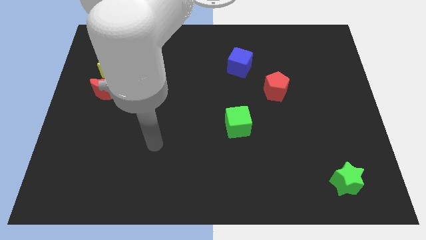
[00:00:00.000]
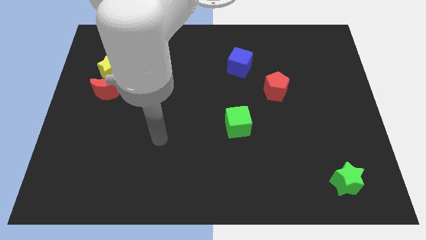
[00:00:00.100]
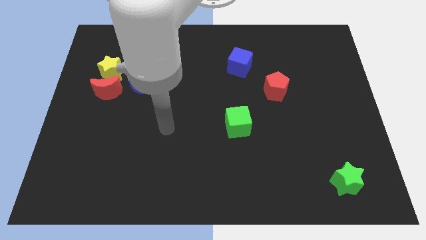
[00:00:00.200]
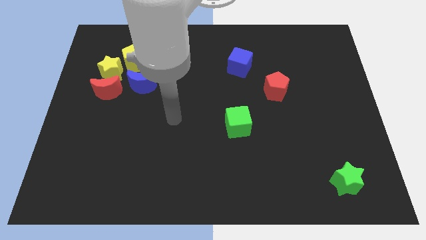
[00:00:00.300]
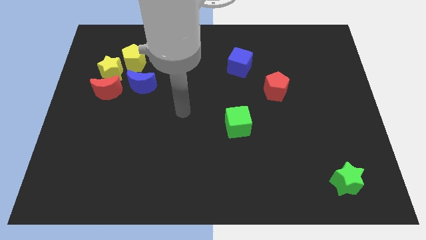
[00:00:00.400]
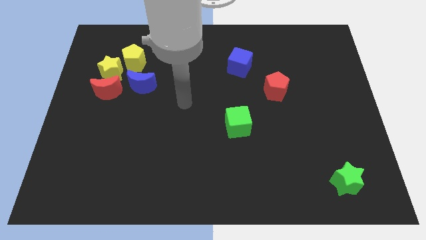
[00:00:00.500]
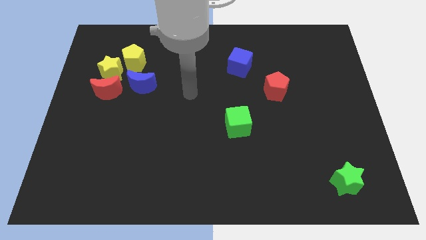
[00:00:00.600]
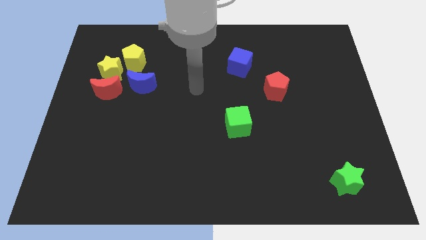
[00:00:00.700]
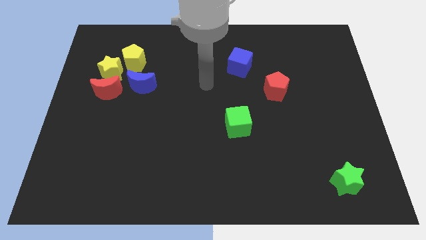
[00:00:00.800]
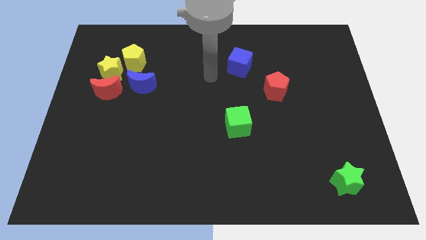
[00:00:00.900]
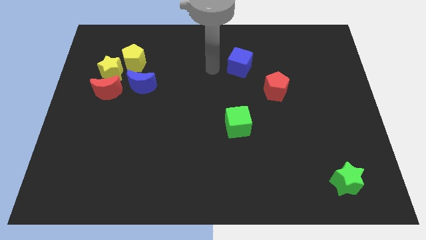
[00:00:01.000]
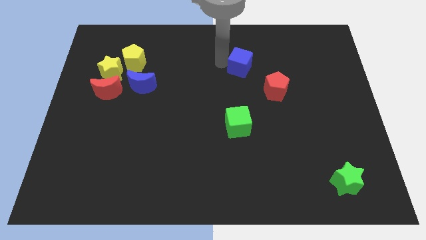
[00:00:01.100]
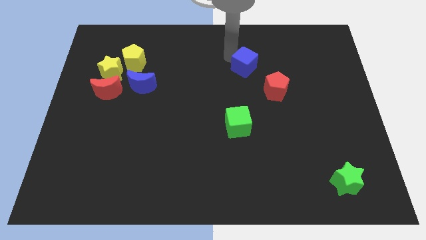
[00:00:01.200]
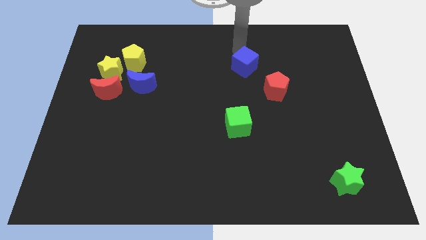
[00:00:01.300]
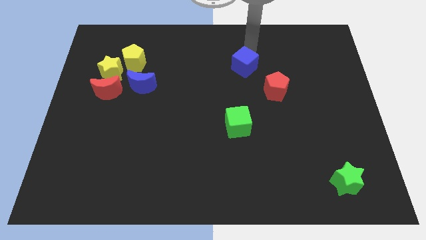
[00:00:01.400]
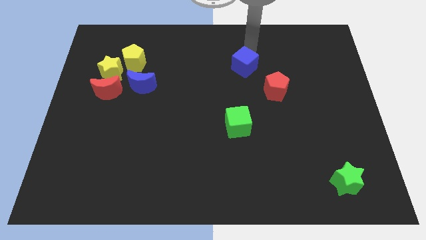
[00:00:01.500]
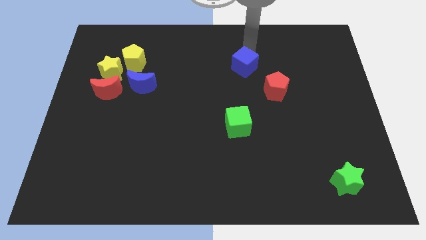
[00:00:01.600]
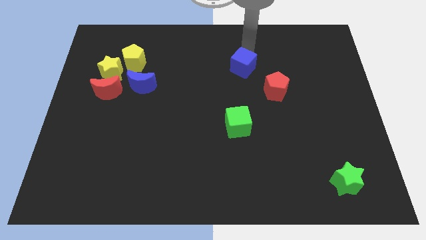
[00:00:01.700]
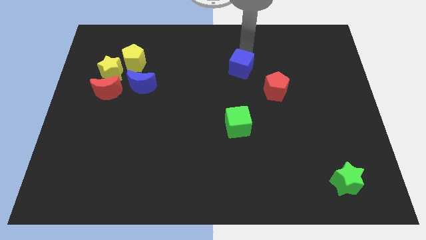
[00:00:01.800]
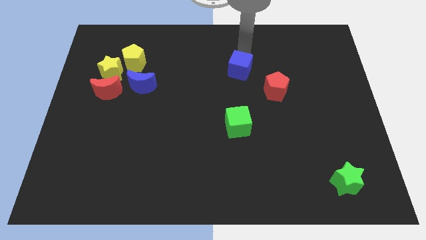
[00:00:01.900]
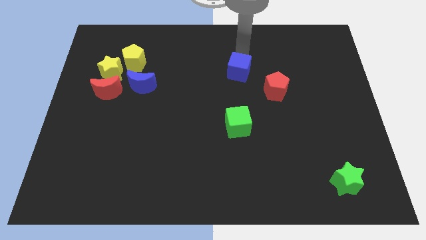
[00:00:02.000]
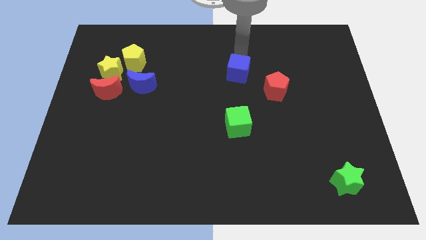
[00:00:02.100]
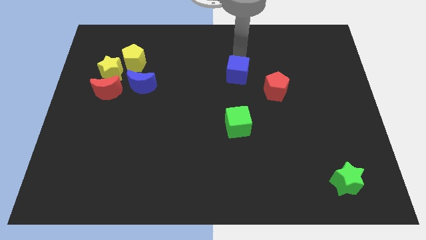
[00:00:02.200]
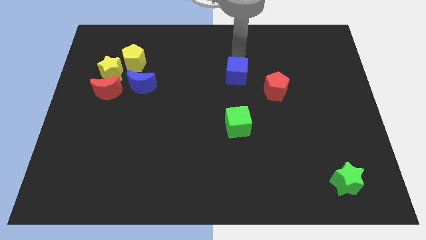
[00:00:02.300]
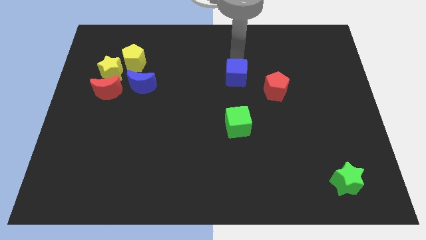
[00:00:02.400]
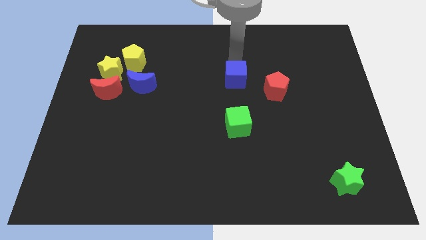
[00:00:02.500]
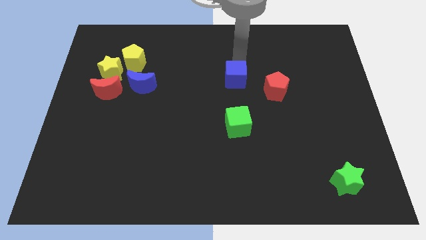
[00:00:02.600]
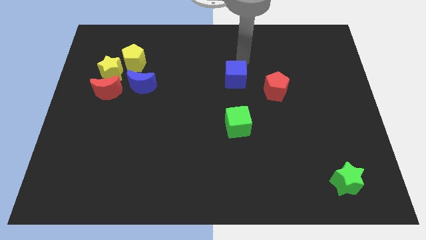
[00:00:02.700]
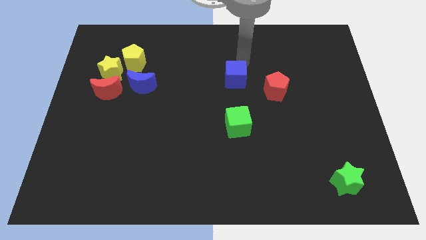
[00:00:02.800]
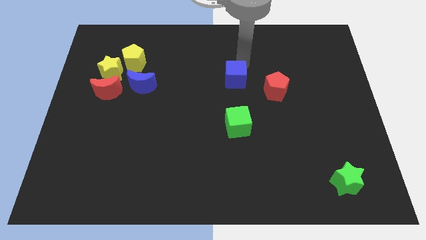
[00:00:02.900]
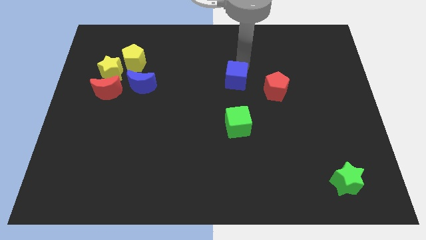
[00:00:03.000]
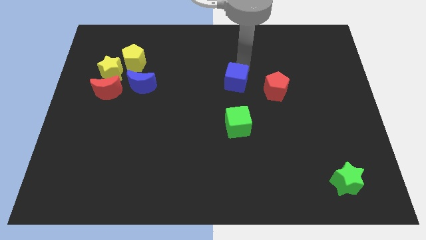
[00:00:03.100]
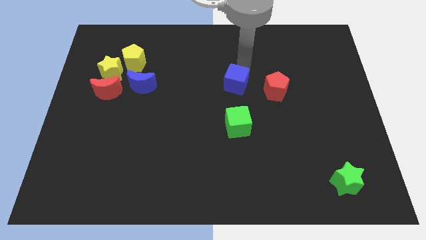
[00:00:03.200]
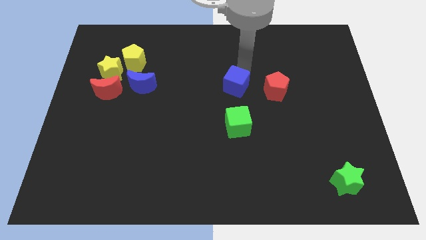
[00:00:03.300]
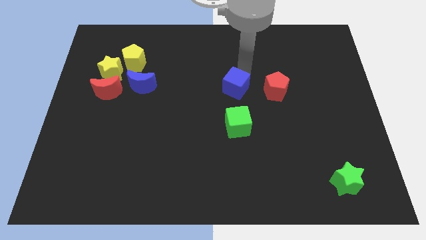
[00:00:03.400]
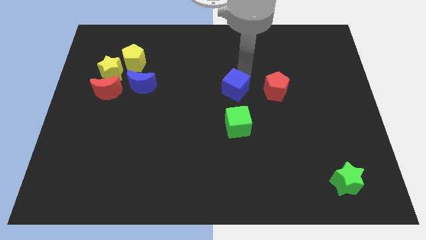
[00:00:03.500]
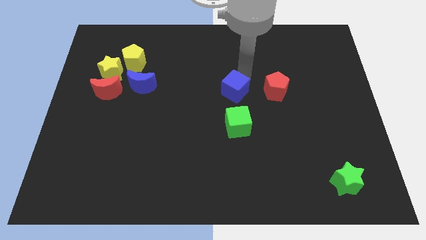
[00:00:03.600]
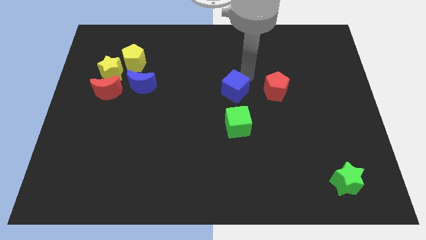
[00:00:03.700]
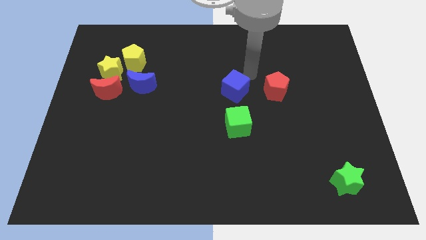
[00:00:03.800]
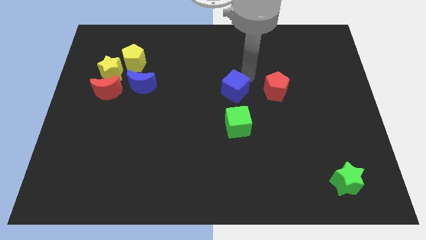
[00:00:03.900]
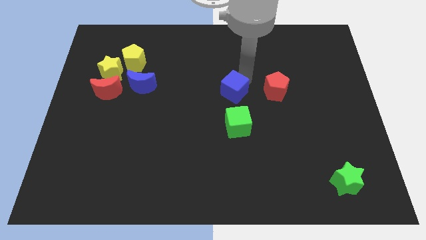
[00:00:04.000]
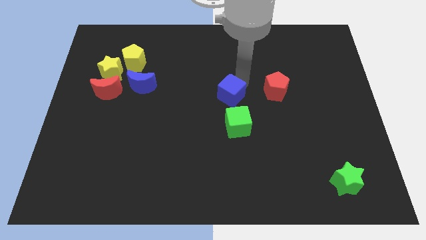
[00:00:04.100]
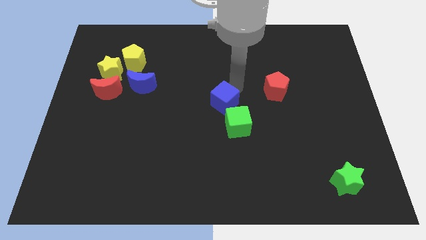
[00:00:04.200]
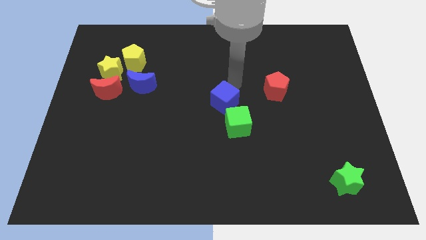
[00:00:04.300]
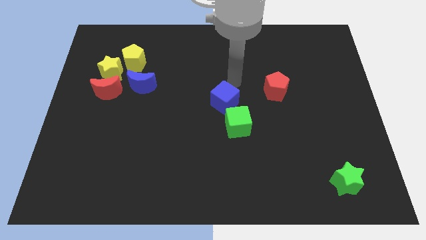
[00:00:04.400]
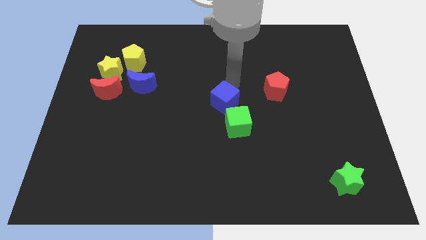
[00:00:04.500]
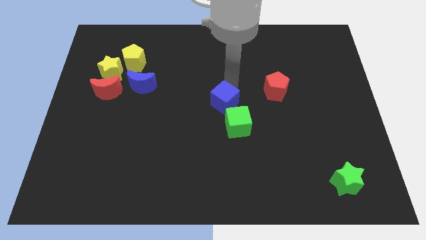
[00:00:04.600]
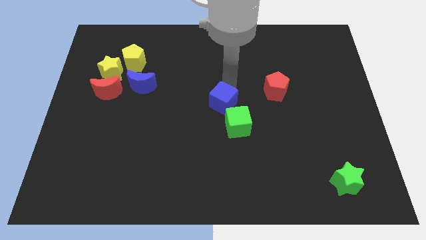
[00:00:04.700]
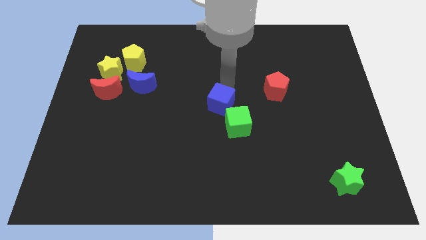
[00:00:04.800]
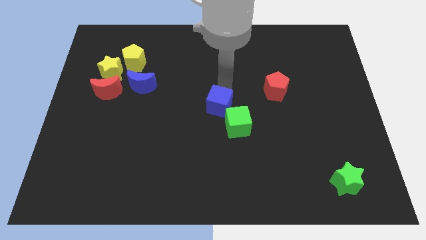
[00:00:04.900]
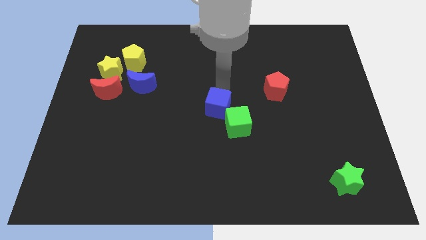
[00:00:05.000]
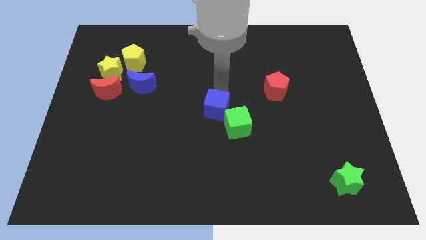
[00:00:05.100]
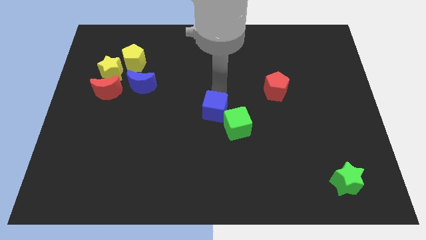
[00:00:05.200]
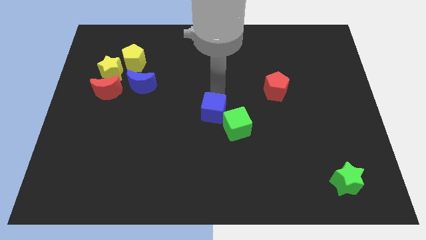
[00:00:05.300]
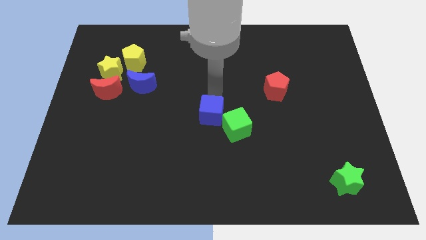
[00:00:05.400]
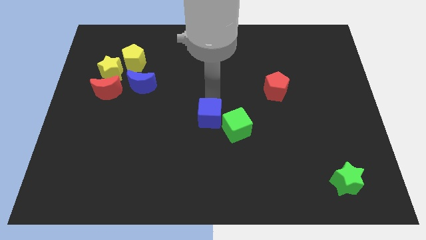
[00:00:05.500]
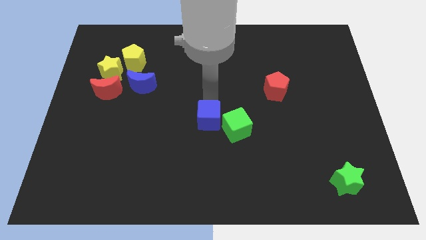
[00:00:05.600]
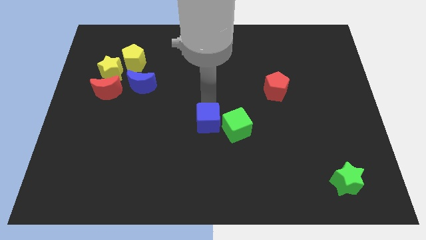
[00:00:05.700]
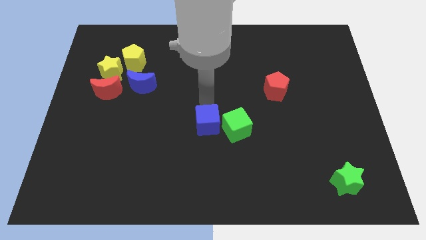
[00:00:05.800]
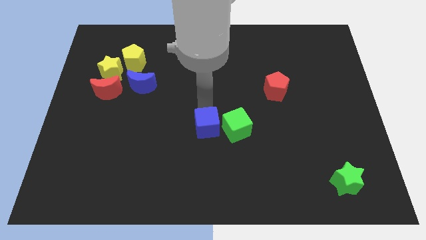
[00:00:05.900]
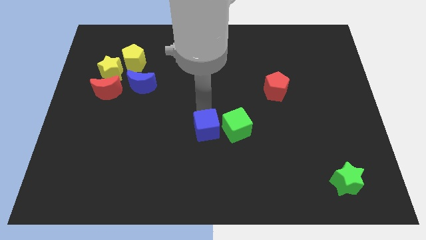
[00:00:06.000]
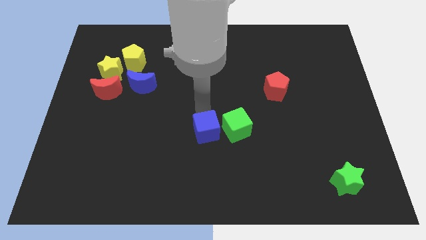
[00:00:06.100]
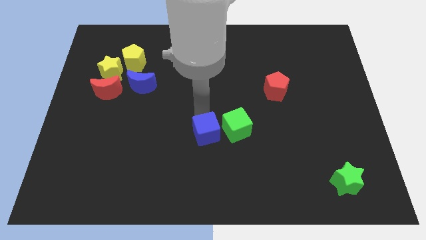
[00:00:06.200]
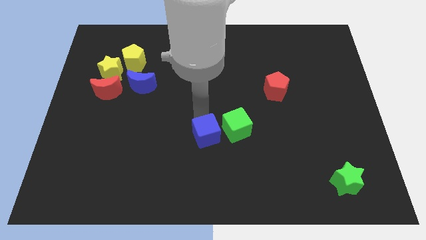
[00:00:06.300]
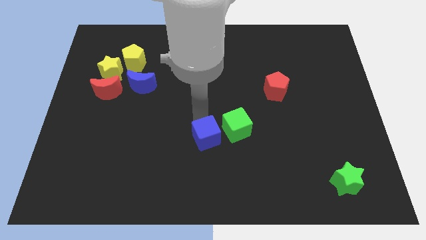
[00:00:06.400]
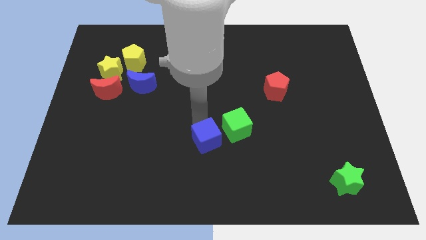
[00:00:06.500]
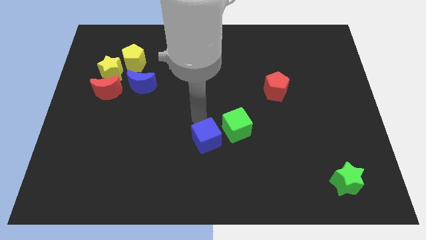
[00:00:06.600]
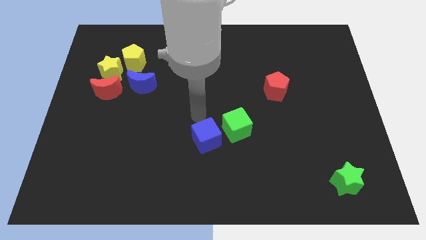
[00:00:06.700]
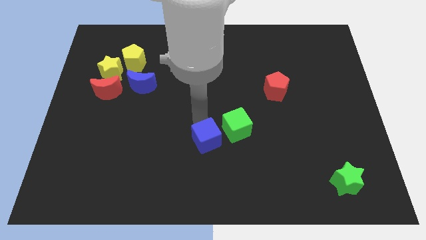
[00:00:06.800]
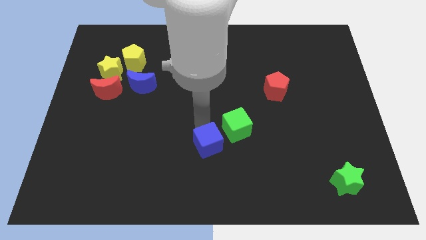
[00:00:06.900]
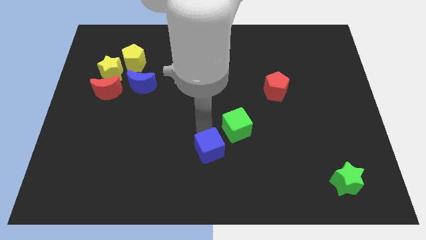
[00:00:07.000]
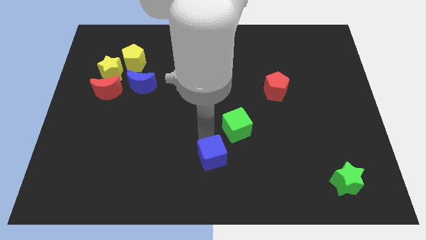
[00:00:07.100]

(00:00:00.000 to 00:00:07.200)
put the blue cube to the bottom
